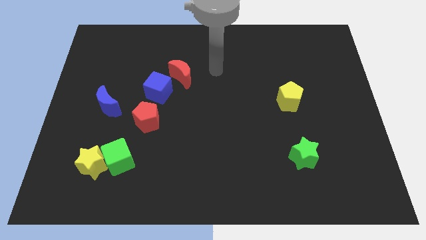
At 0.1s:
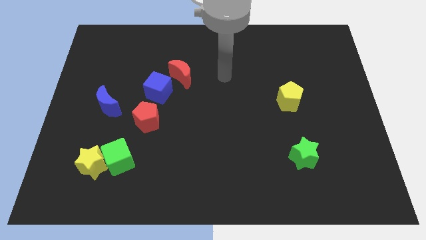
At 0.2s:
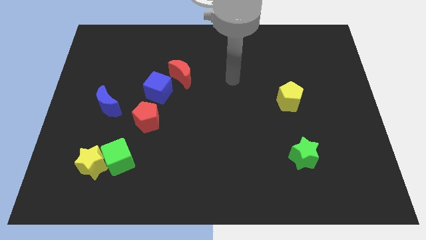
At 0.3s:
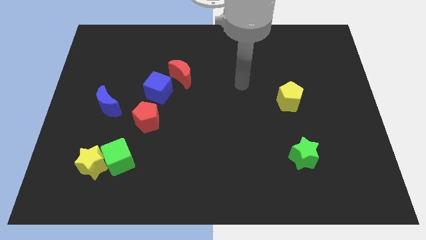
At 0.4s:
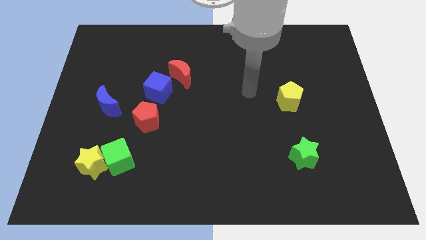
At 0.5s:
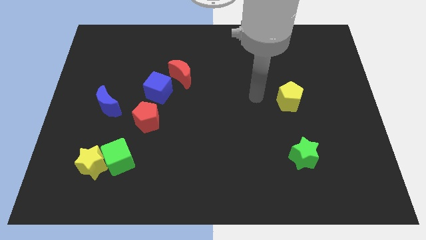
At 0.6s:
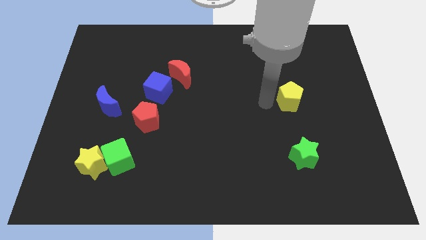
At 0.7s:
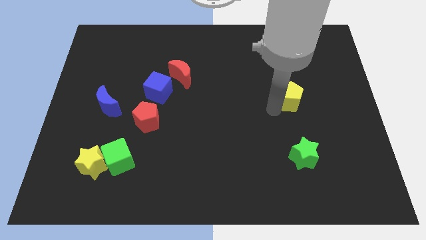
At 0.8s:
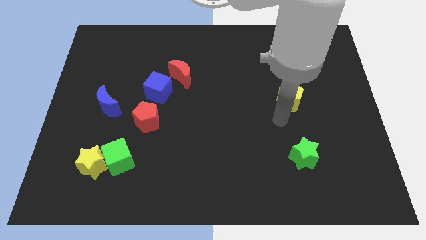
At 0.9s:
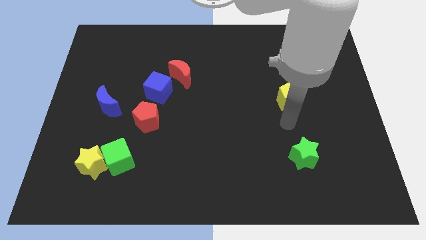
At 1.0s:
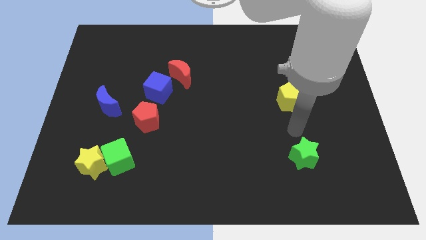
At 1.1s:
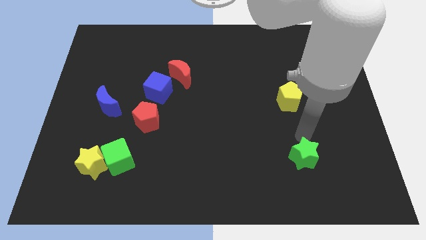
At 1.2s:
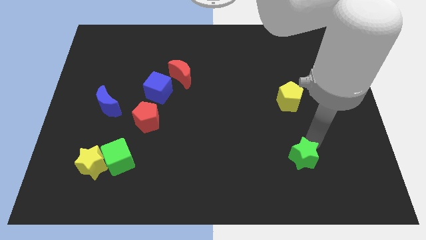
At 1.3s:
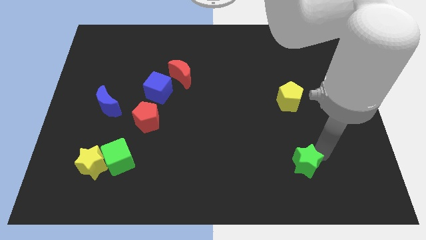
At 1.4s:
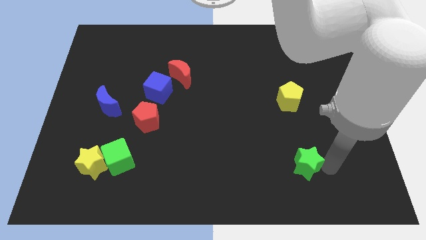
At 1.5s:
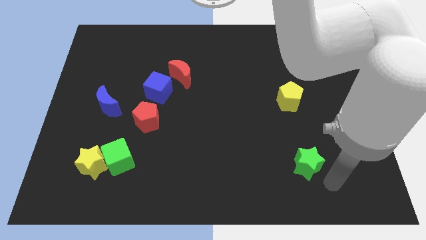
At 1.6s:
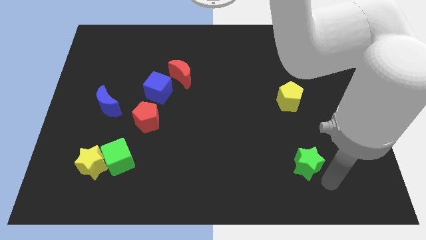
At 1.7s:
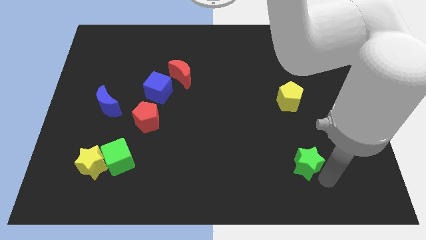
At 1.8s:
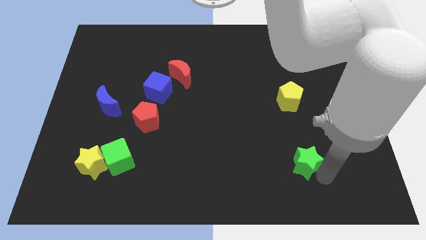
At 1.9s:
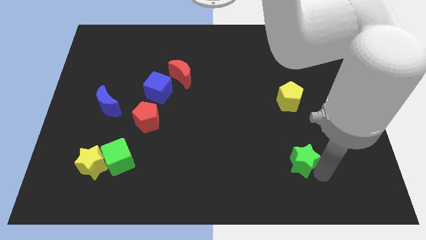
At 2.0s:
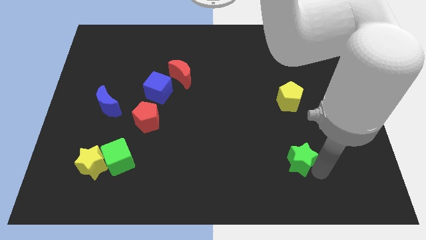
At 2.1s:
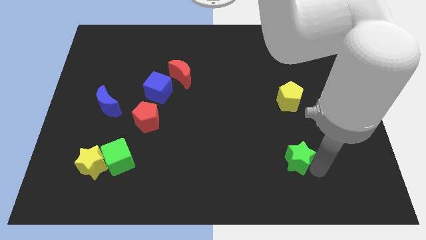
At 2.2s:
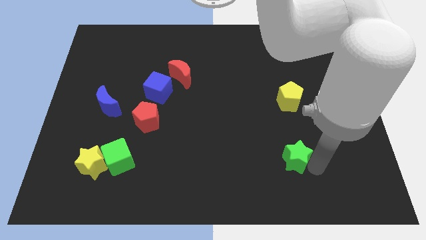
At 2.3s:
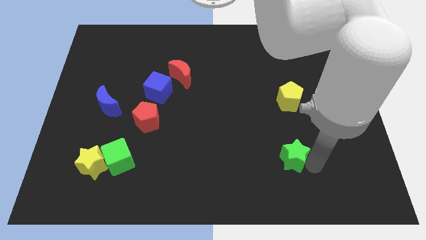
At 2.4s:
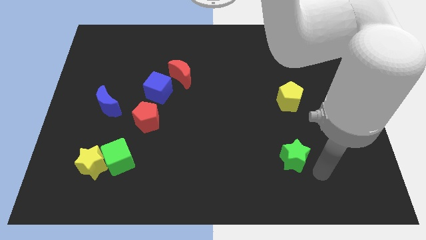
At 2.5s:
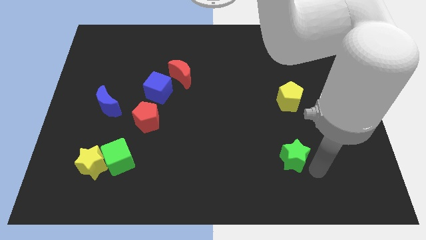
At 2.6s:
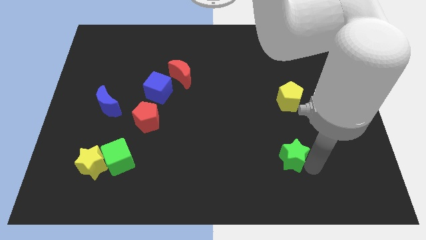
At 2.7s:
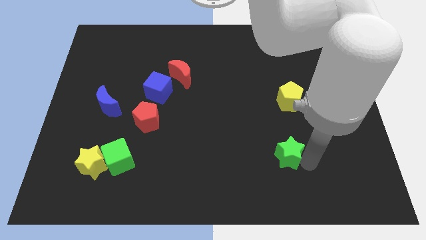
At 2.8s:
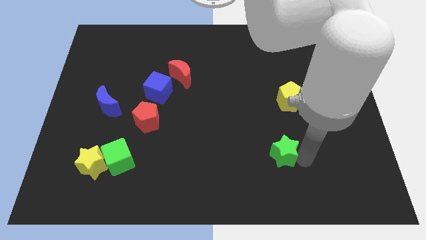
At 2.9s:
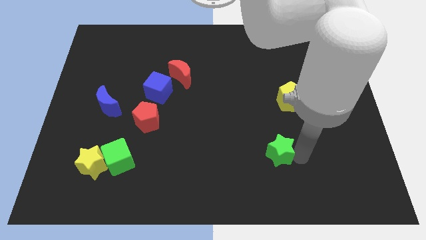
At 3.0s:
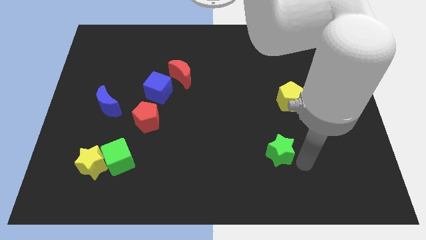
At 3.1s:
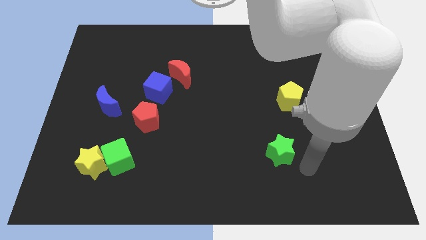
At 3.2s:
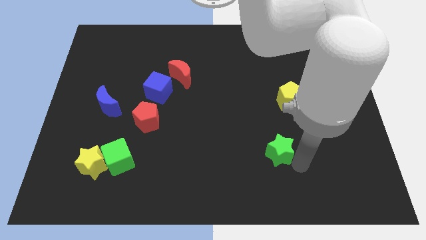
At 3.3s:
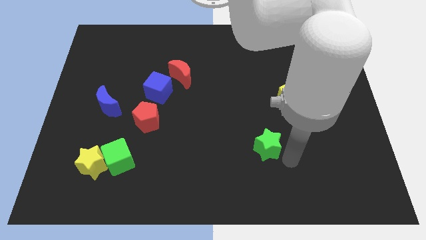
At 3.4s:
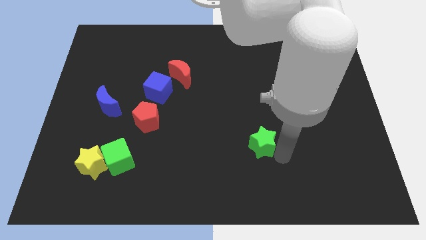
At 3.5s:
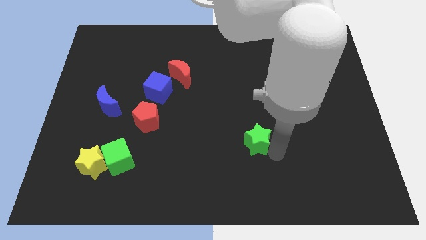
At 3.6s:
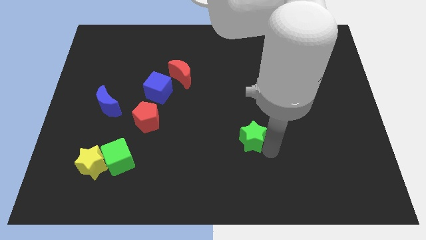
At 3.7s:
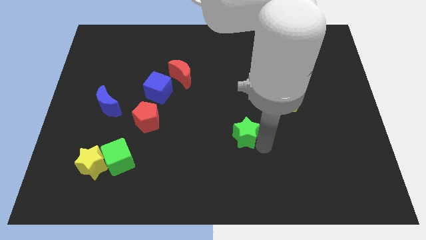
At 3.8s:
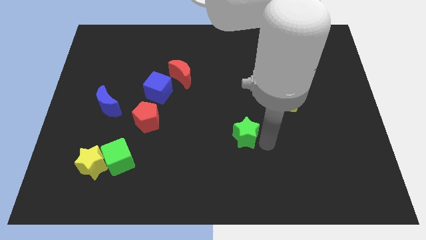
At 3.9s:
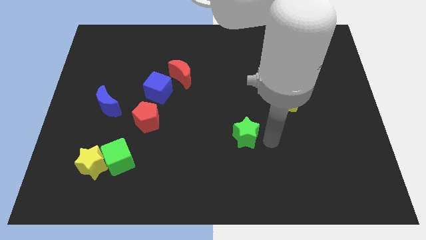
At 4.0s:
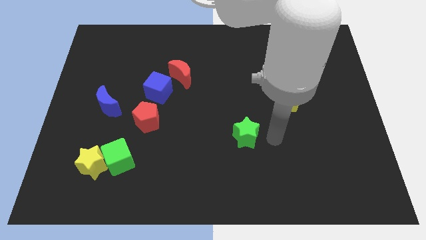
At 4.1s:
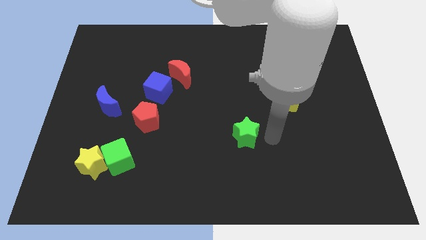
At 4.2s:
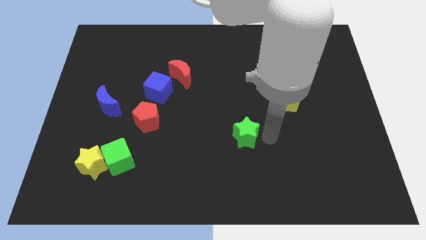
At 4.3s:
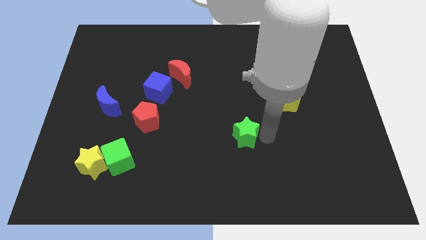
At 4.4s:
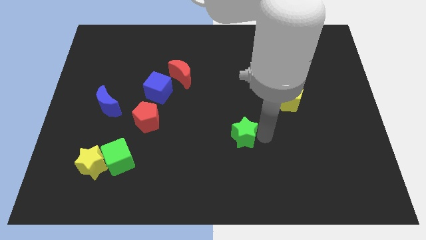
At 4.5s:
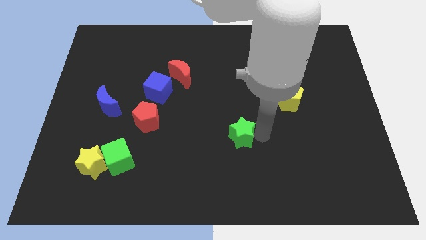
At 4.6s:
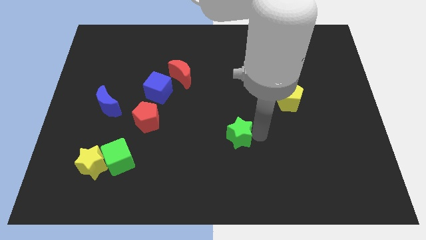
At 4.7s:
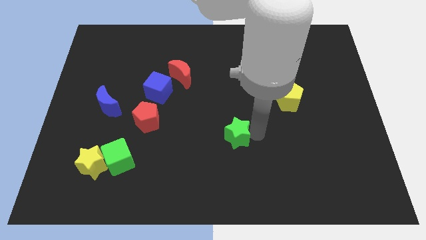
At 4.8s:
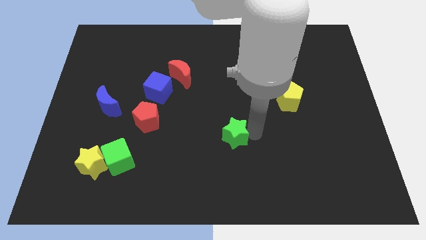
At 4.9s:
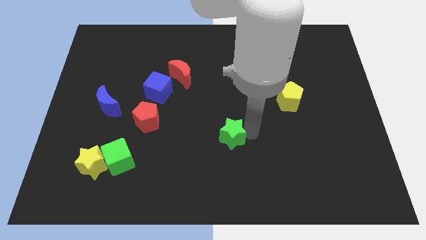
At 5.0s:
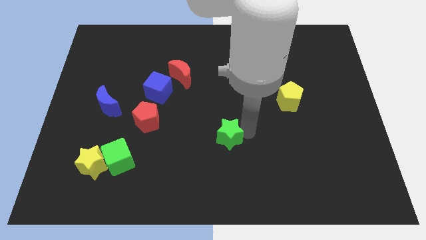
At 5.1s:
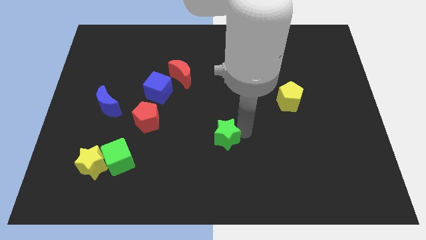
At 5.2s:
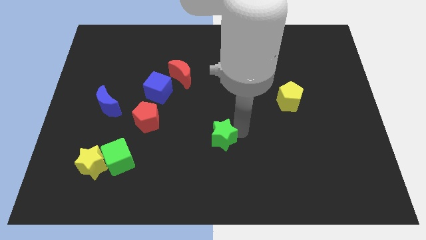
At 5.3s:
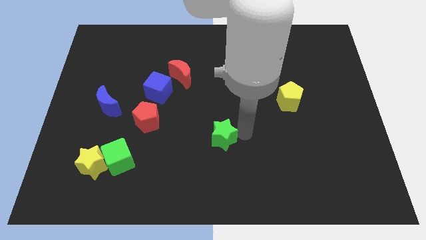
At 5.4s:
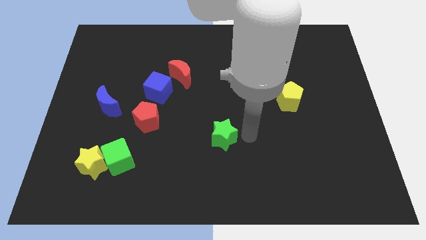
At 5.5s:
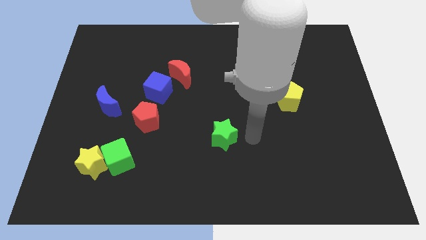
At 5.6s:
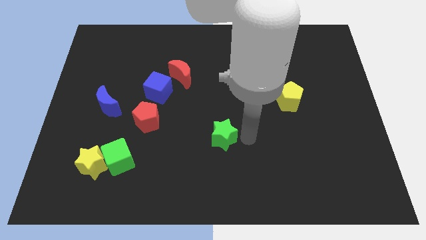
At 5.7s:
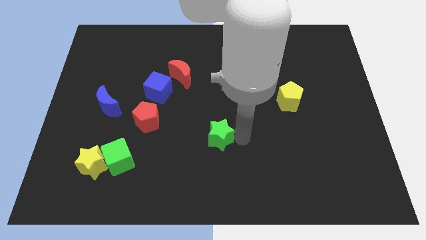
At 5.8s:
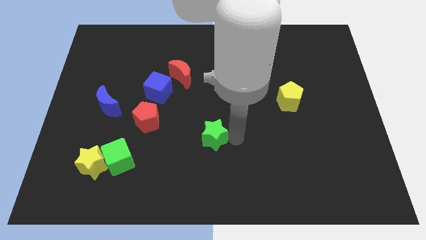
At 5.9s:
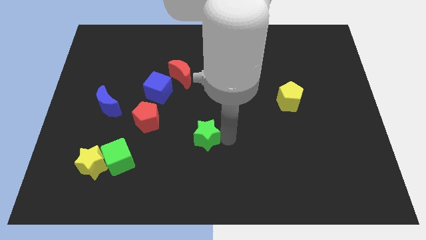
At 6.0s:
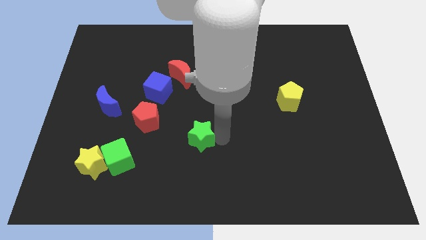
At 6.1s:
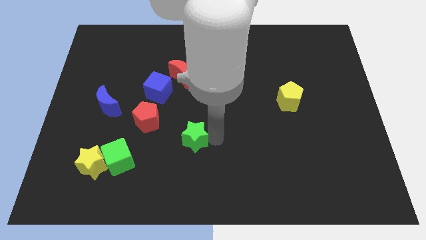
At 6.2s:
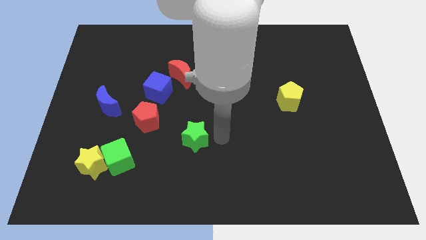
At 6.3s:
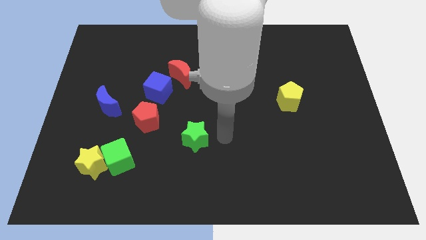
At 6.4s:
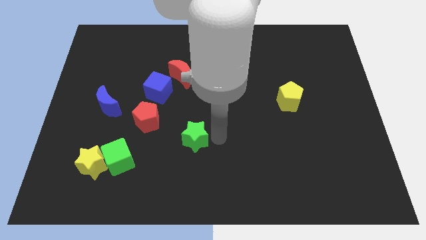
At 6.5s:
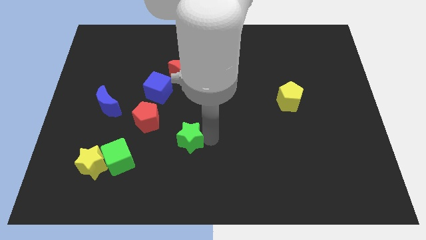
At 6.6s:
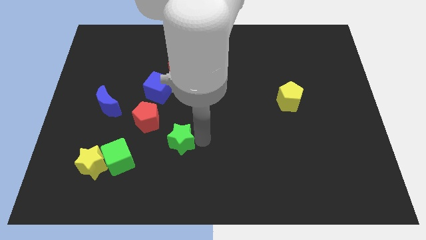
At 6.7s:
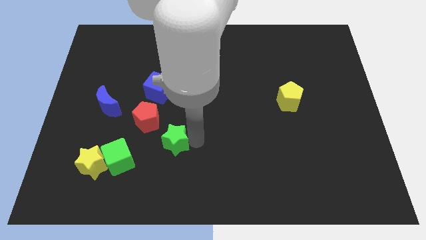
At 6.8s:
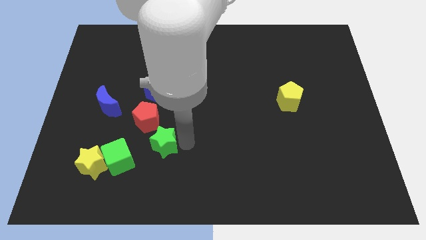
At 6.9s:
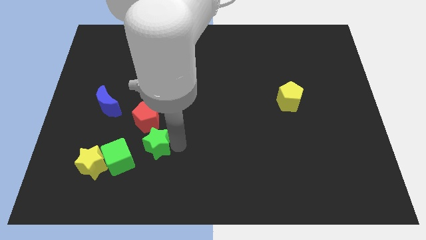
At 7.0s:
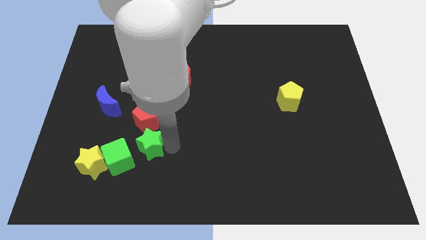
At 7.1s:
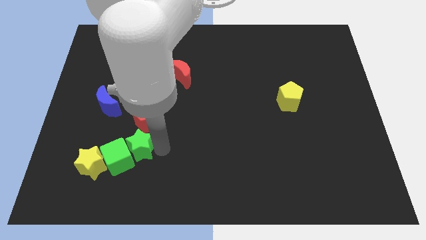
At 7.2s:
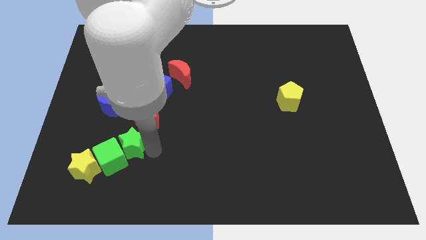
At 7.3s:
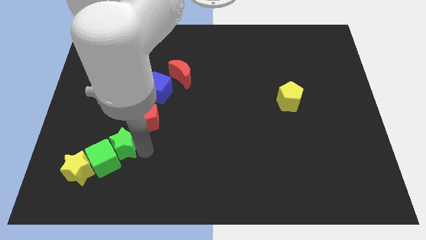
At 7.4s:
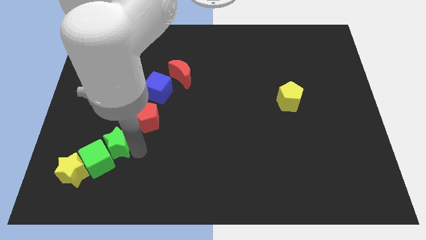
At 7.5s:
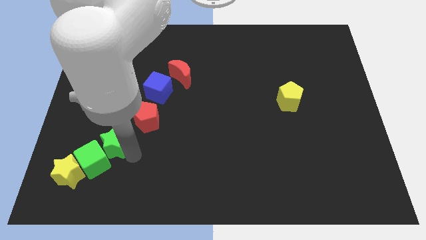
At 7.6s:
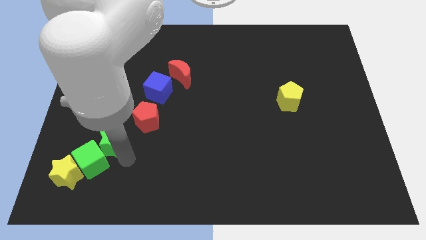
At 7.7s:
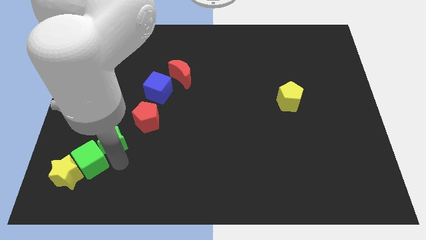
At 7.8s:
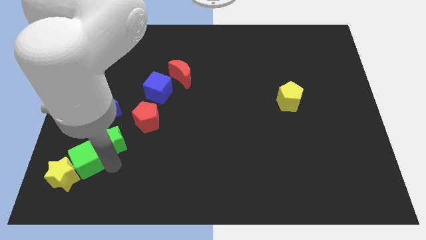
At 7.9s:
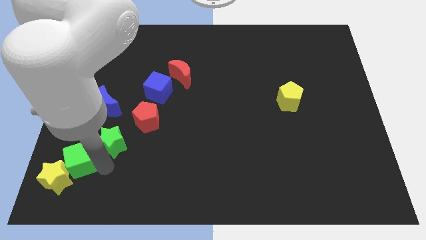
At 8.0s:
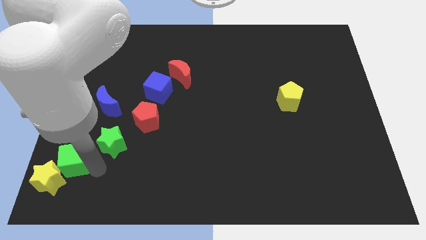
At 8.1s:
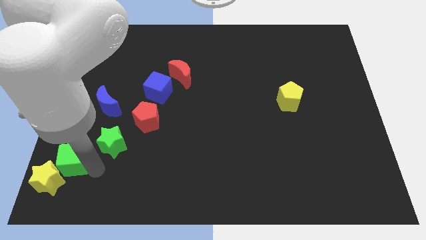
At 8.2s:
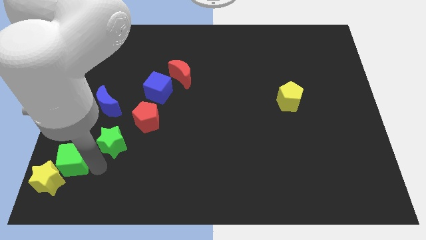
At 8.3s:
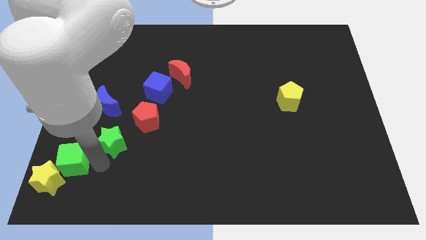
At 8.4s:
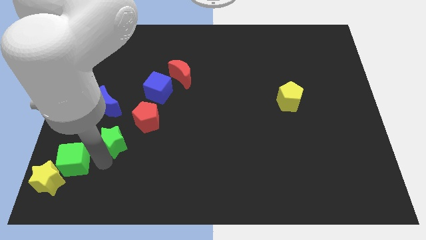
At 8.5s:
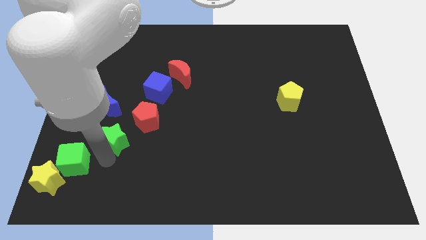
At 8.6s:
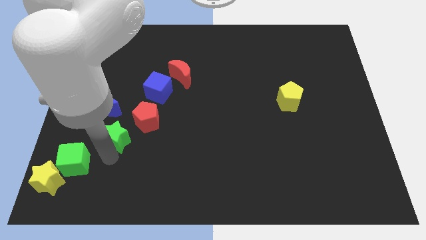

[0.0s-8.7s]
slide the green star to the bottom right of the blue moon
